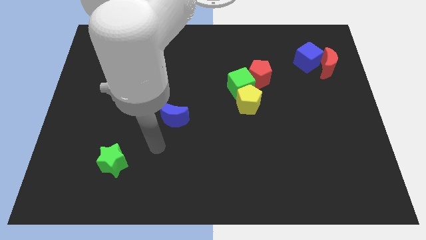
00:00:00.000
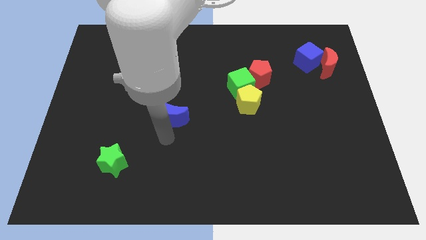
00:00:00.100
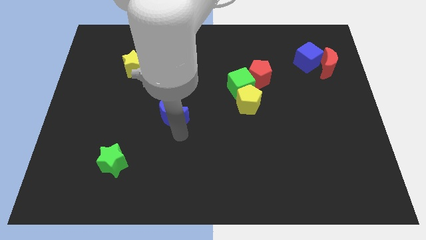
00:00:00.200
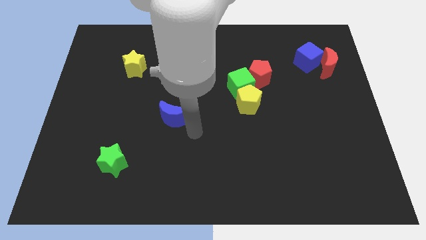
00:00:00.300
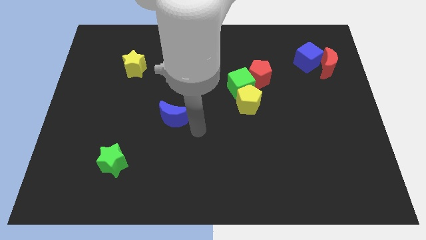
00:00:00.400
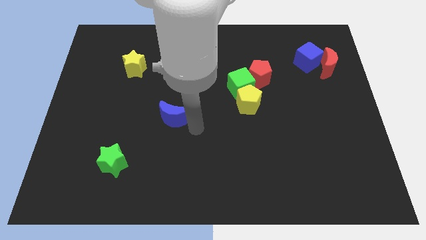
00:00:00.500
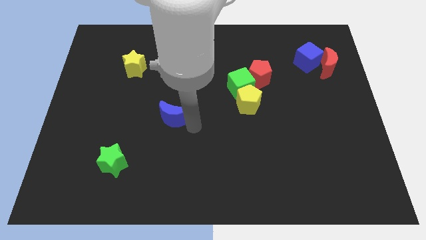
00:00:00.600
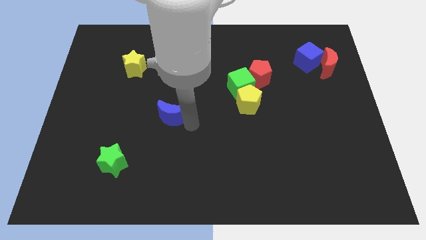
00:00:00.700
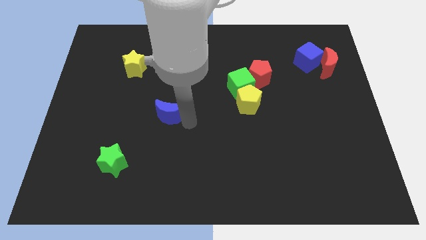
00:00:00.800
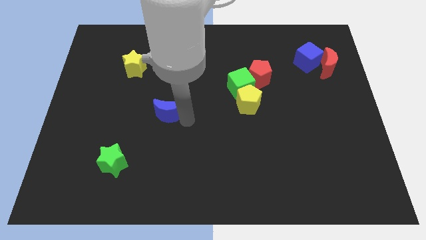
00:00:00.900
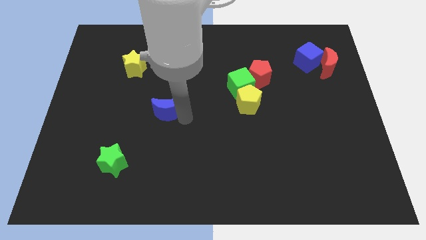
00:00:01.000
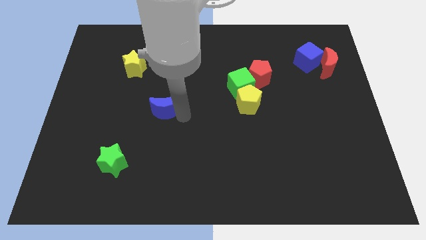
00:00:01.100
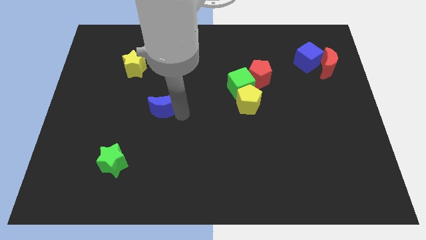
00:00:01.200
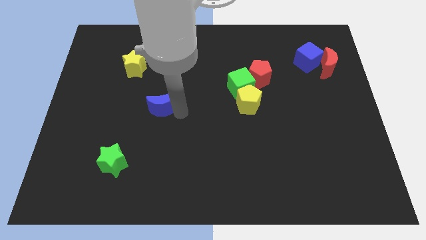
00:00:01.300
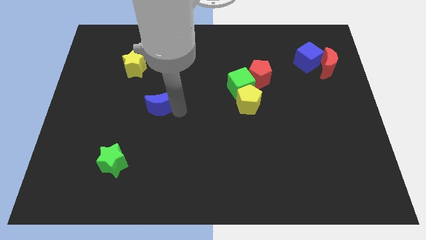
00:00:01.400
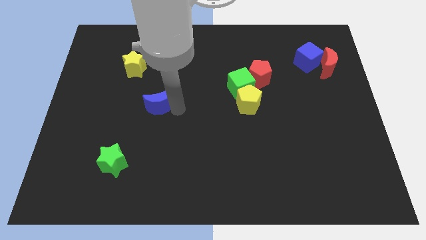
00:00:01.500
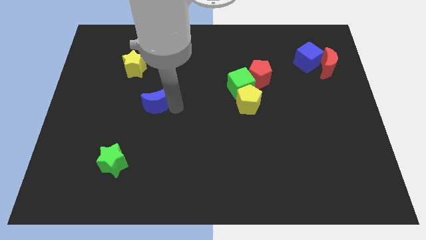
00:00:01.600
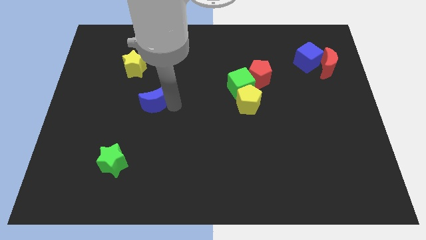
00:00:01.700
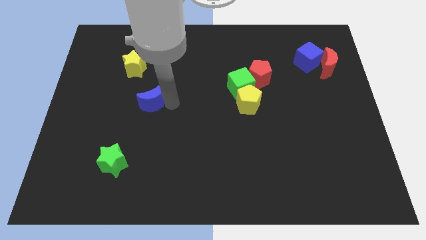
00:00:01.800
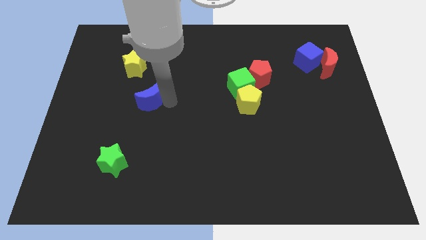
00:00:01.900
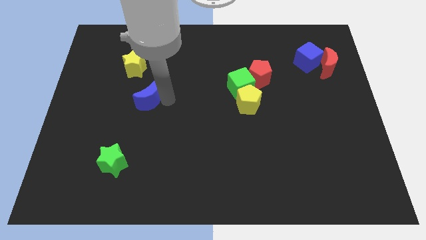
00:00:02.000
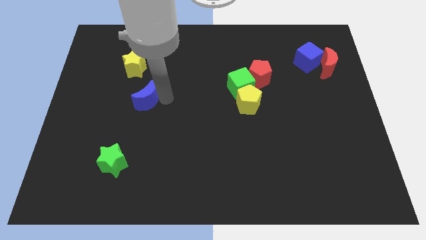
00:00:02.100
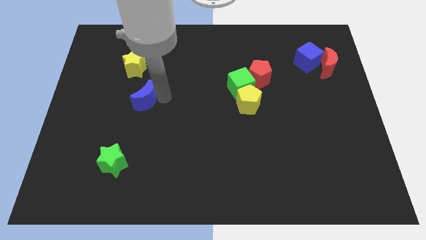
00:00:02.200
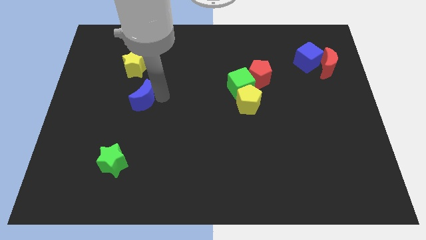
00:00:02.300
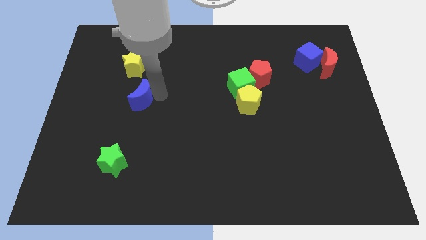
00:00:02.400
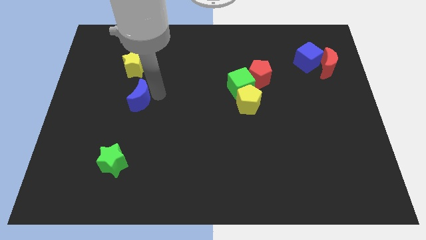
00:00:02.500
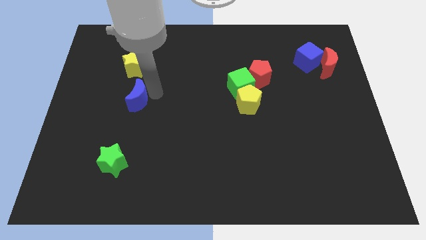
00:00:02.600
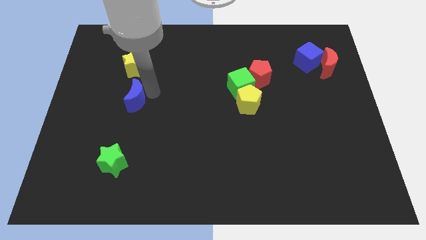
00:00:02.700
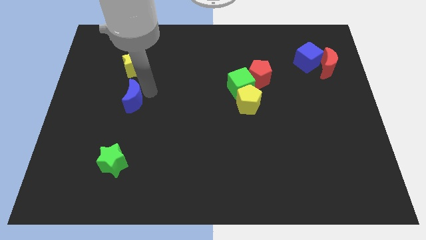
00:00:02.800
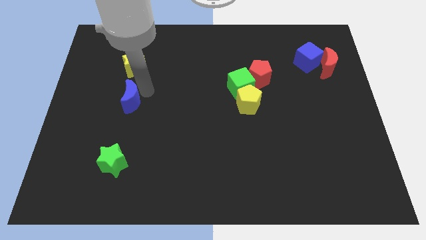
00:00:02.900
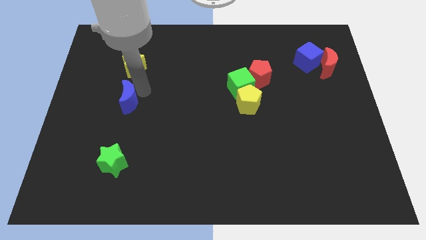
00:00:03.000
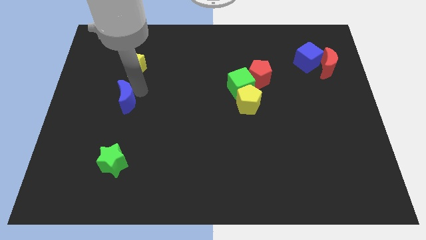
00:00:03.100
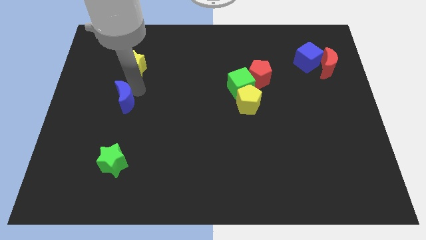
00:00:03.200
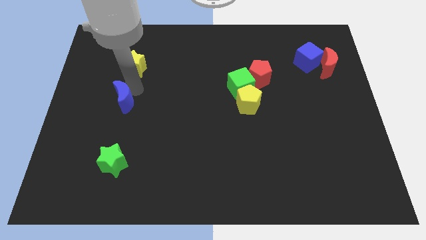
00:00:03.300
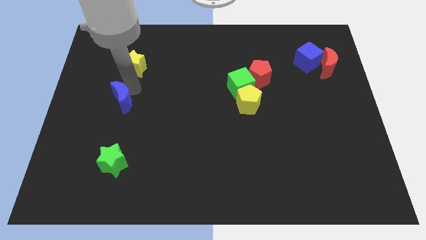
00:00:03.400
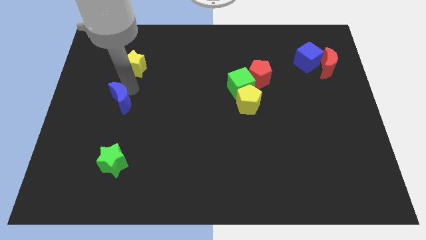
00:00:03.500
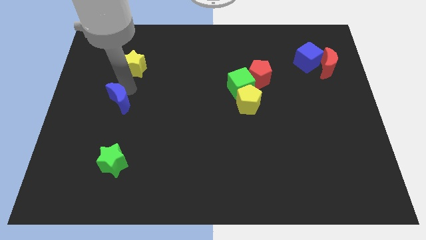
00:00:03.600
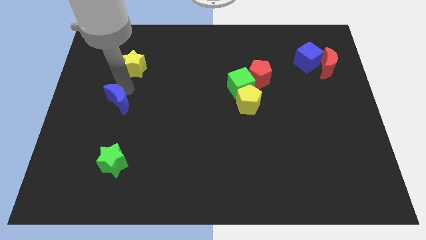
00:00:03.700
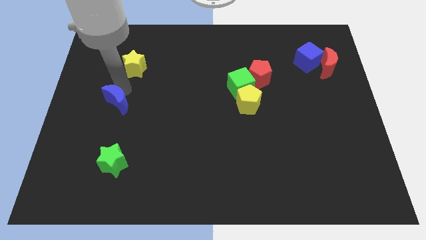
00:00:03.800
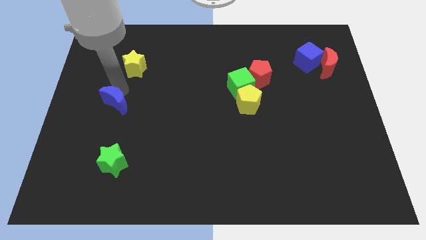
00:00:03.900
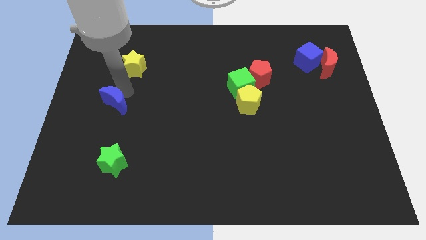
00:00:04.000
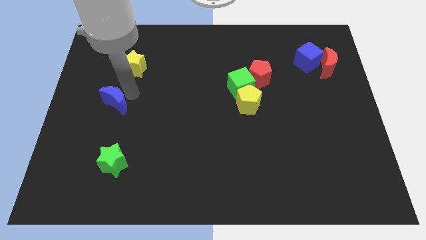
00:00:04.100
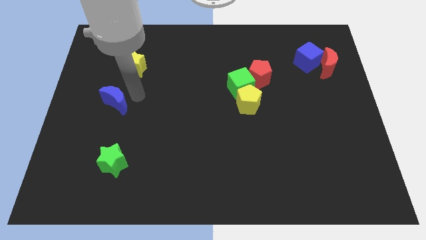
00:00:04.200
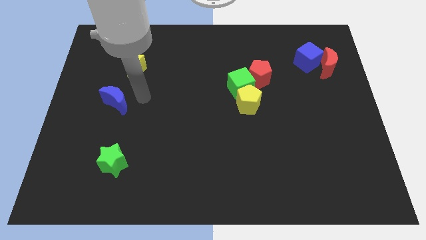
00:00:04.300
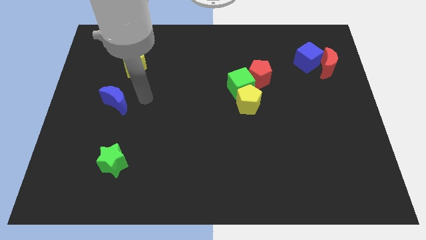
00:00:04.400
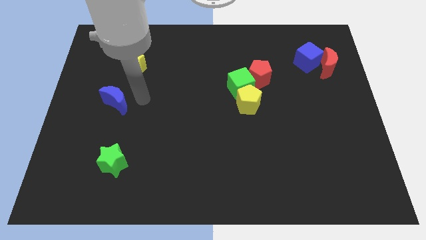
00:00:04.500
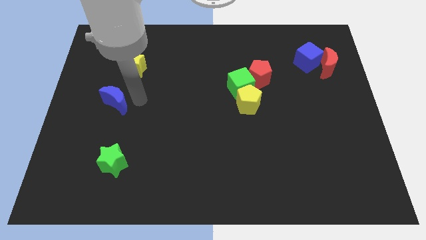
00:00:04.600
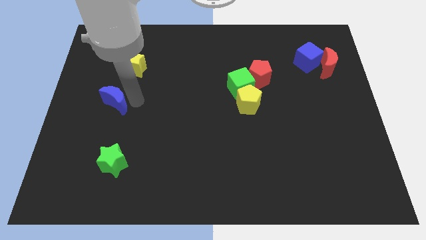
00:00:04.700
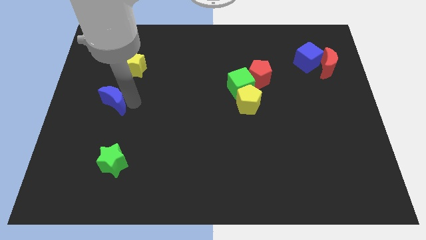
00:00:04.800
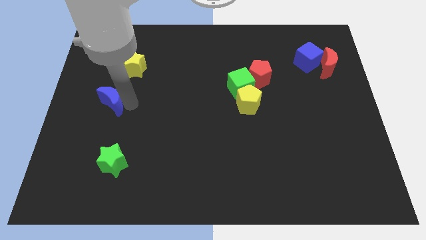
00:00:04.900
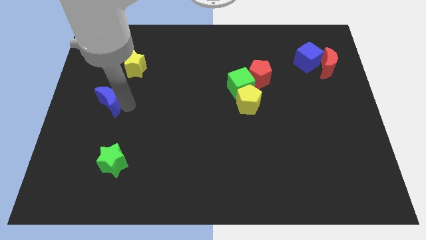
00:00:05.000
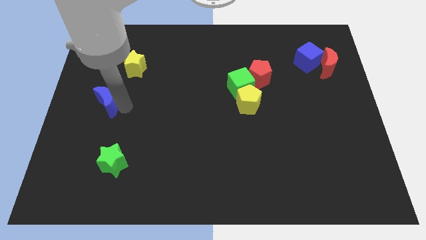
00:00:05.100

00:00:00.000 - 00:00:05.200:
move the blue moon to the center left

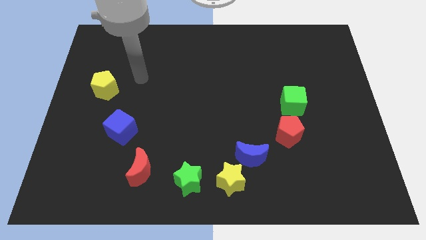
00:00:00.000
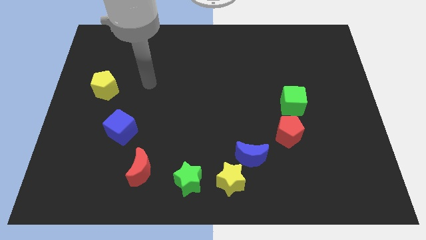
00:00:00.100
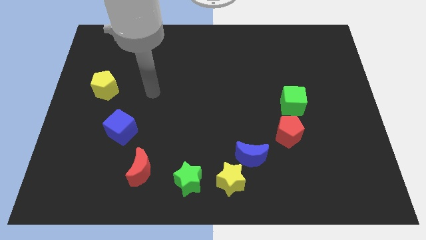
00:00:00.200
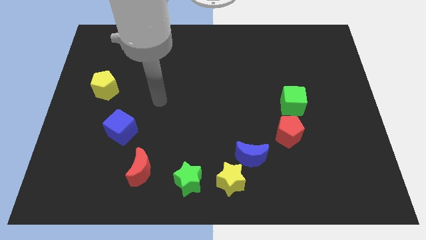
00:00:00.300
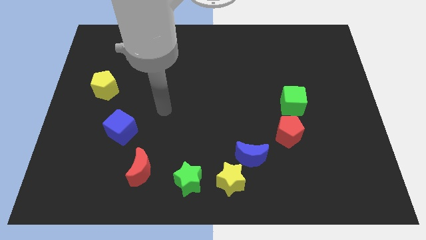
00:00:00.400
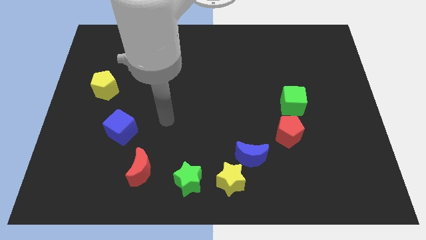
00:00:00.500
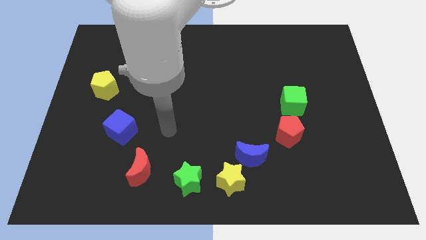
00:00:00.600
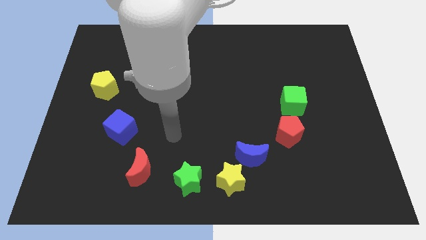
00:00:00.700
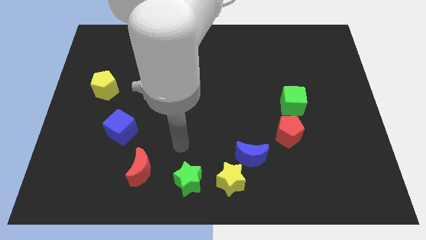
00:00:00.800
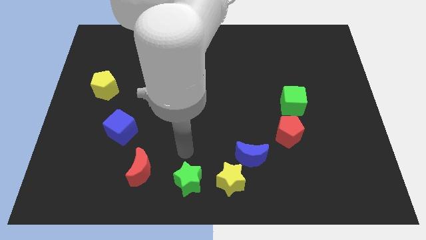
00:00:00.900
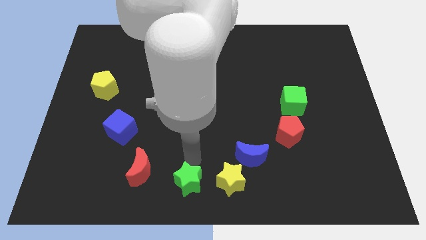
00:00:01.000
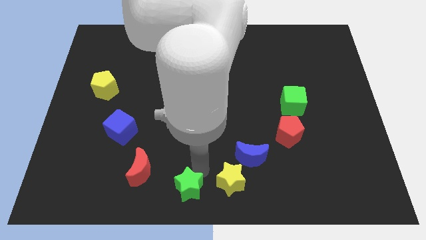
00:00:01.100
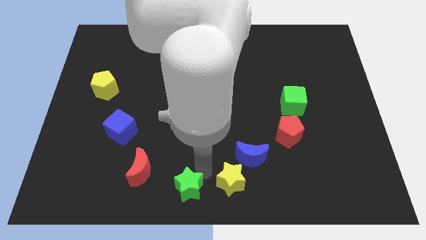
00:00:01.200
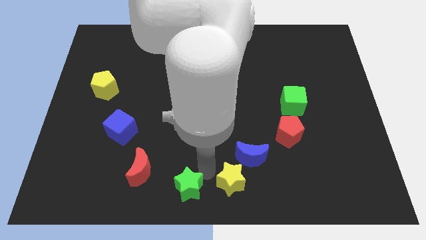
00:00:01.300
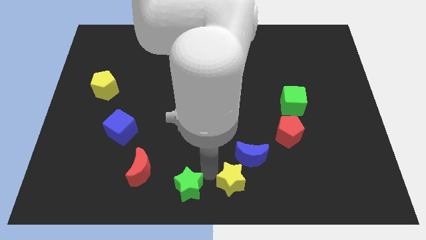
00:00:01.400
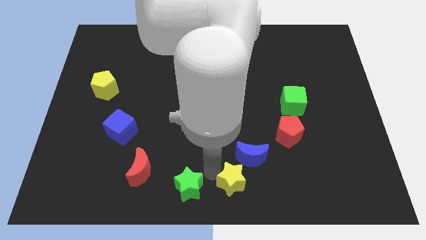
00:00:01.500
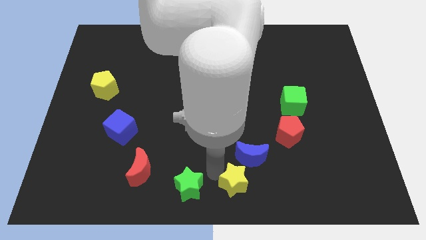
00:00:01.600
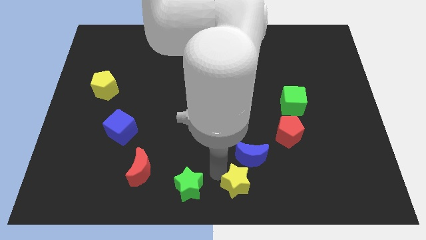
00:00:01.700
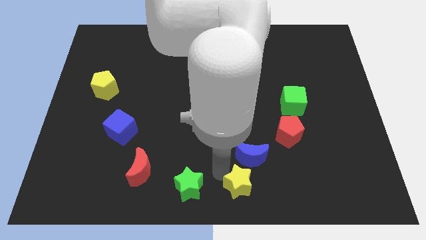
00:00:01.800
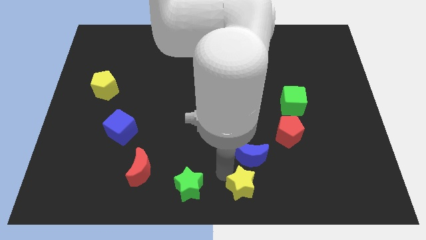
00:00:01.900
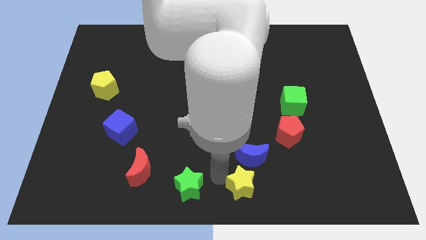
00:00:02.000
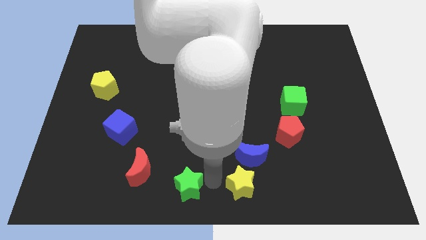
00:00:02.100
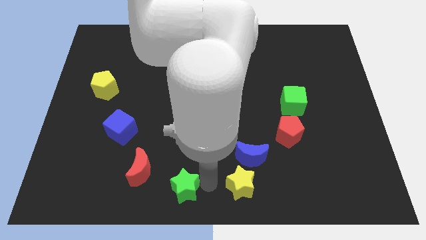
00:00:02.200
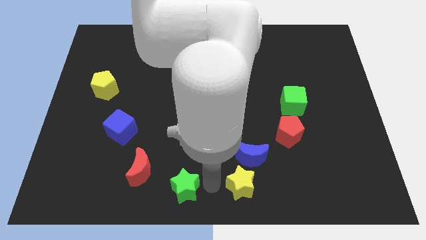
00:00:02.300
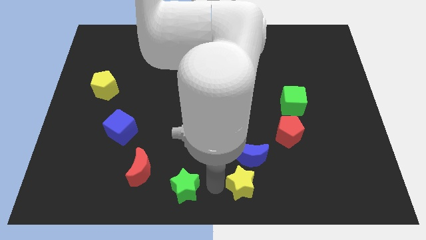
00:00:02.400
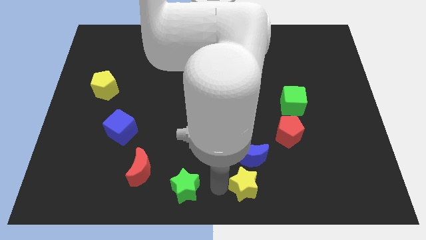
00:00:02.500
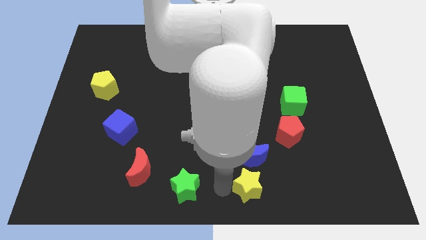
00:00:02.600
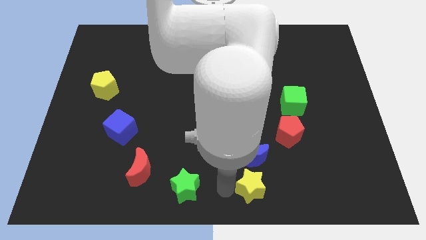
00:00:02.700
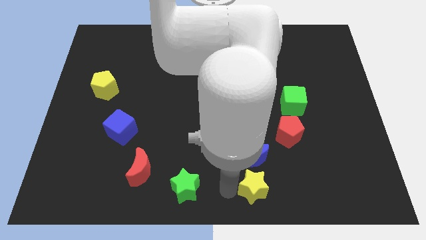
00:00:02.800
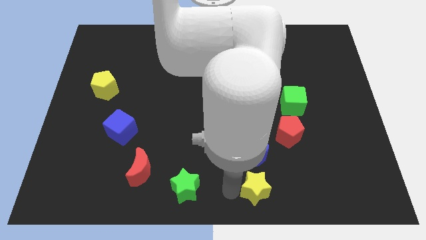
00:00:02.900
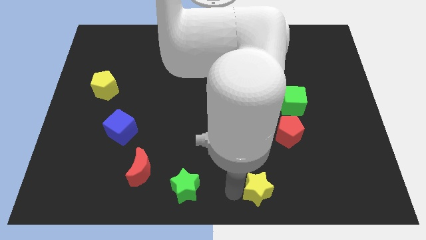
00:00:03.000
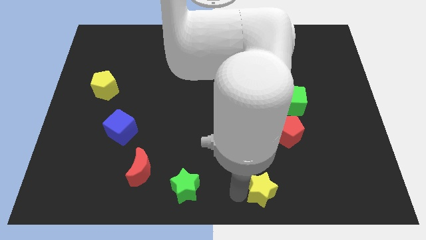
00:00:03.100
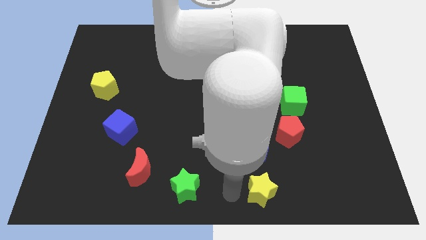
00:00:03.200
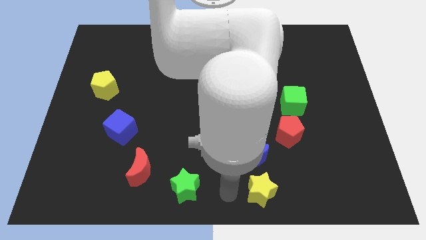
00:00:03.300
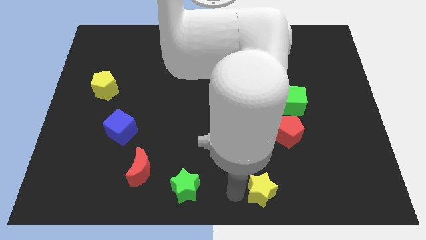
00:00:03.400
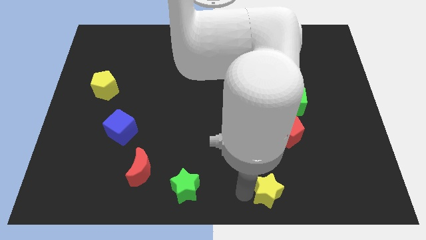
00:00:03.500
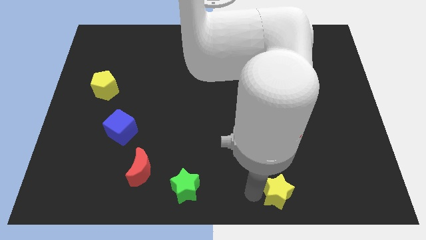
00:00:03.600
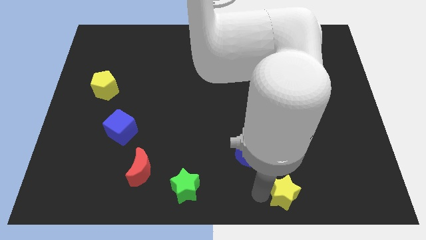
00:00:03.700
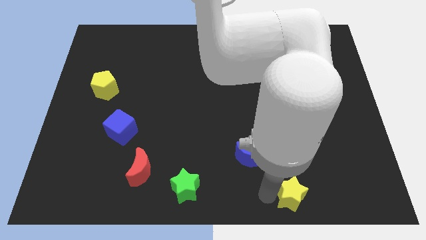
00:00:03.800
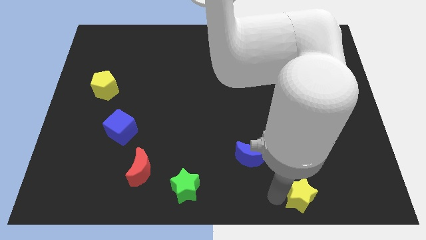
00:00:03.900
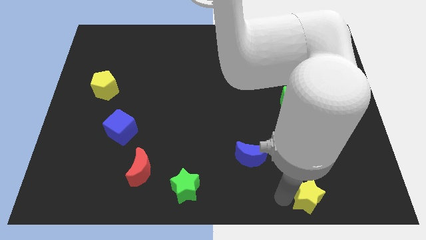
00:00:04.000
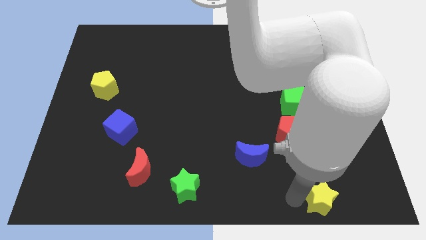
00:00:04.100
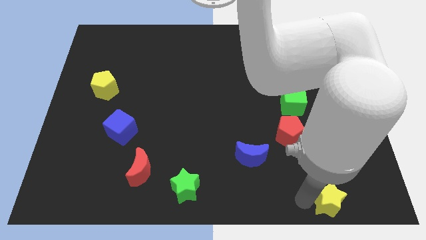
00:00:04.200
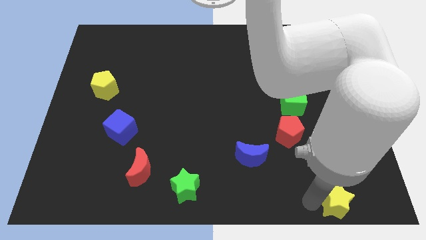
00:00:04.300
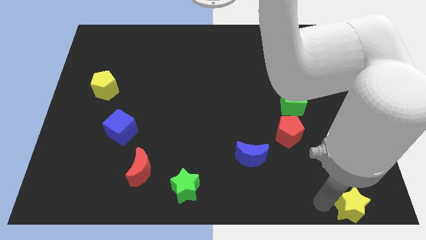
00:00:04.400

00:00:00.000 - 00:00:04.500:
put the yellow star to the bottom right of the board
